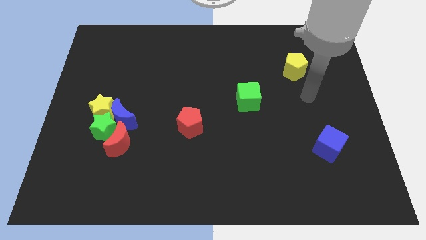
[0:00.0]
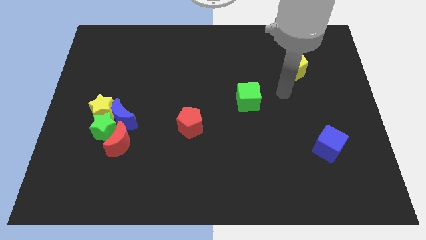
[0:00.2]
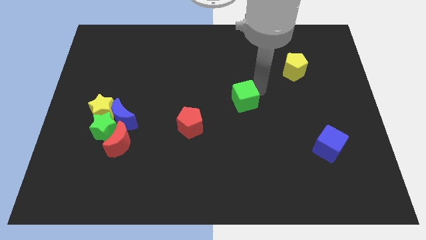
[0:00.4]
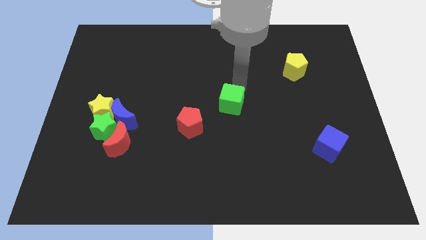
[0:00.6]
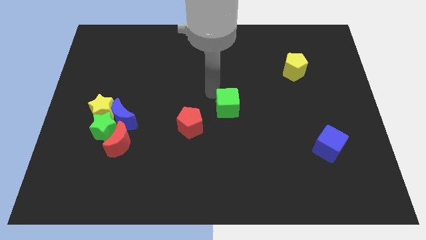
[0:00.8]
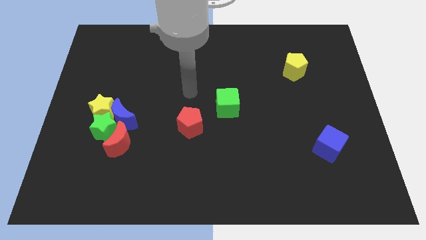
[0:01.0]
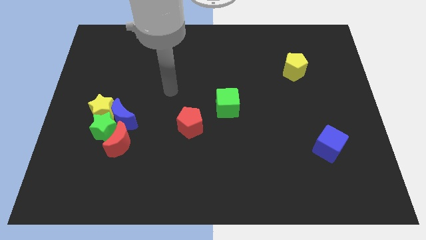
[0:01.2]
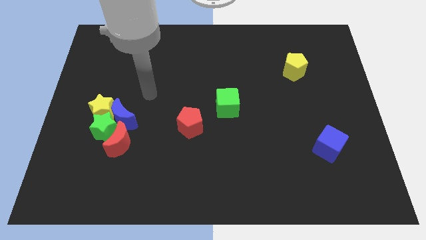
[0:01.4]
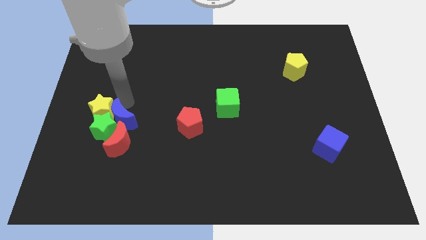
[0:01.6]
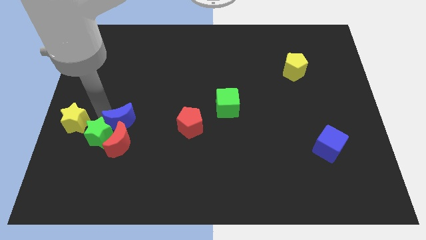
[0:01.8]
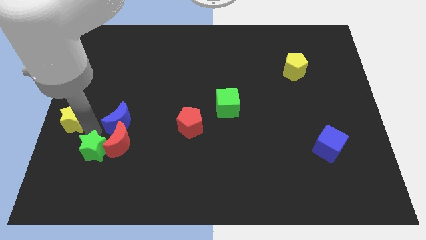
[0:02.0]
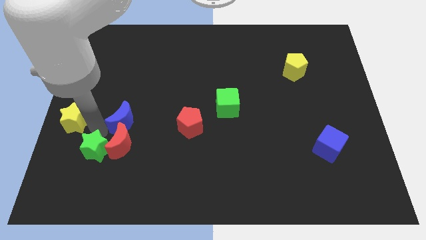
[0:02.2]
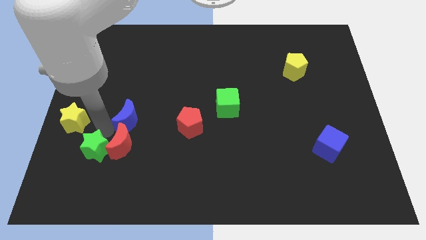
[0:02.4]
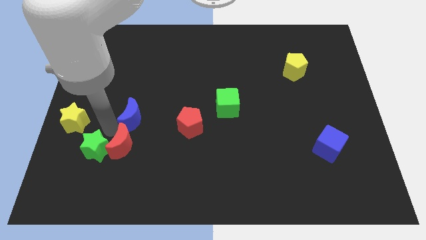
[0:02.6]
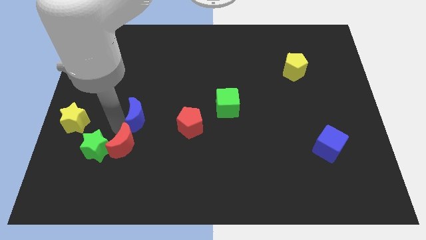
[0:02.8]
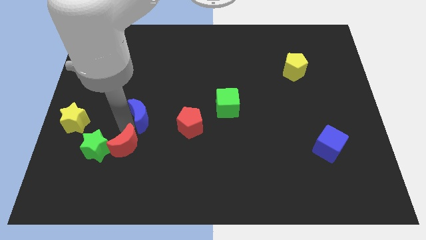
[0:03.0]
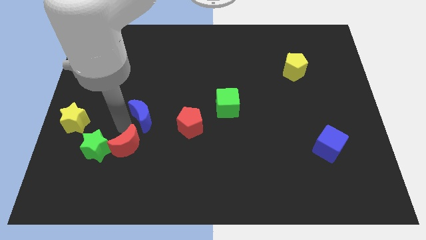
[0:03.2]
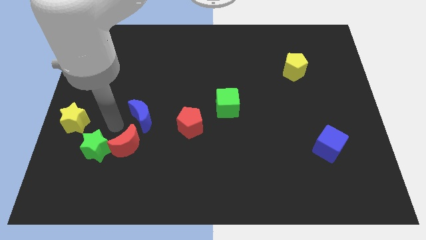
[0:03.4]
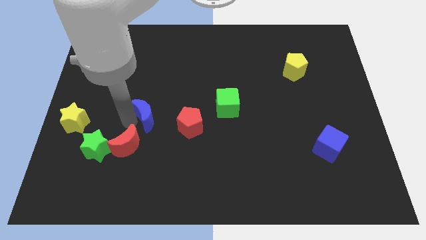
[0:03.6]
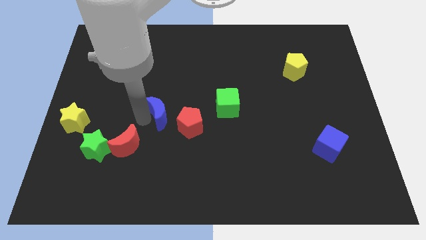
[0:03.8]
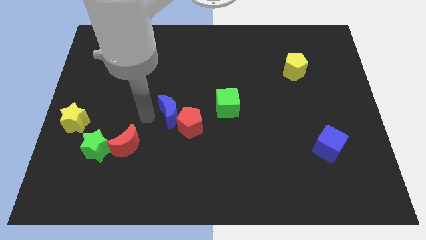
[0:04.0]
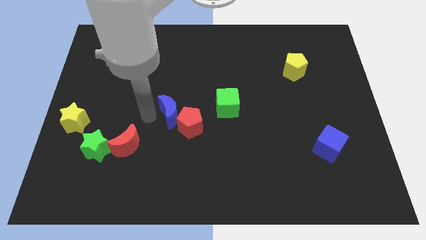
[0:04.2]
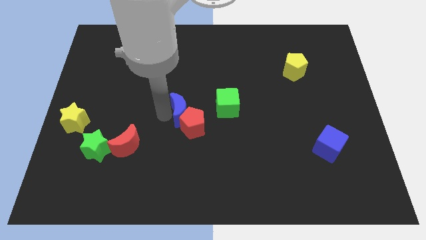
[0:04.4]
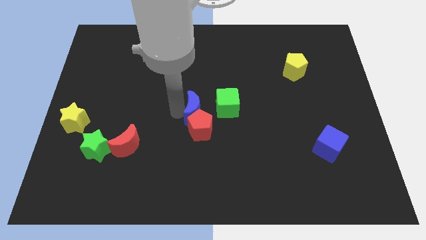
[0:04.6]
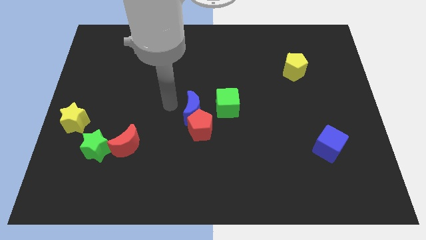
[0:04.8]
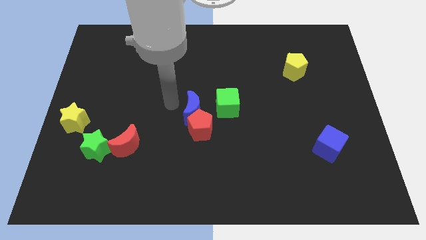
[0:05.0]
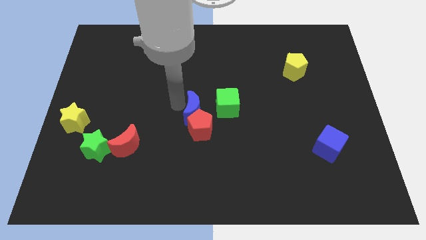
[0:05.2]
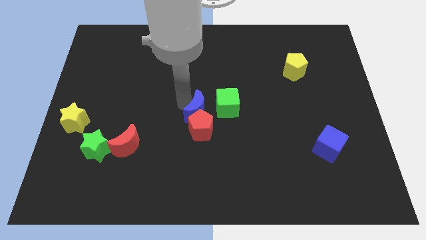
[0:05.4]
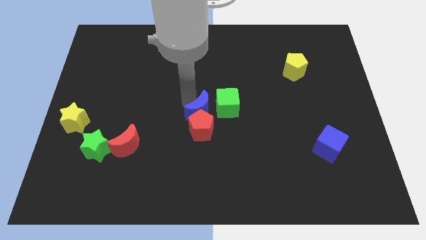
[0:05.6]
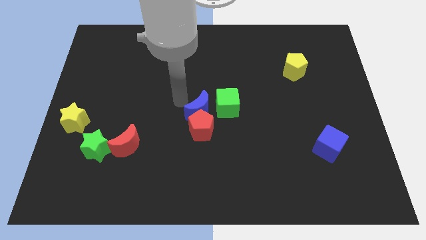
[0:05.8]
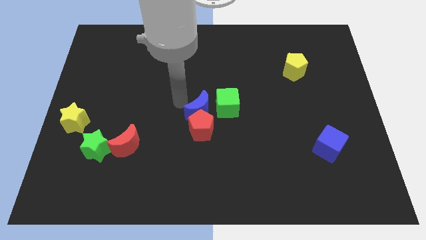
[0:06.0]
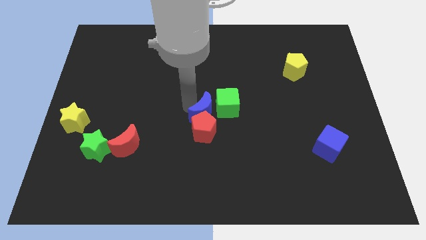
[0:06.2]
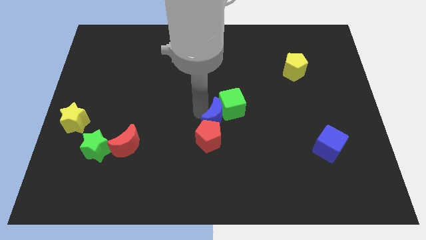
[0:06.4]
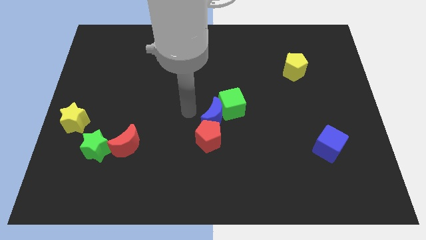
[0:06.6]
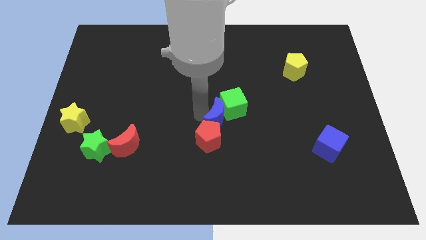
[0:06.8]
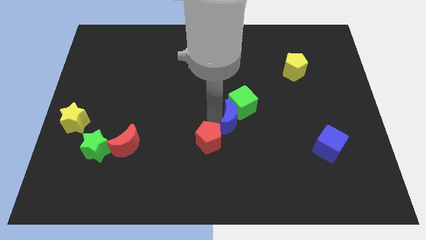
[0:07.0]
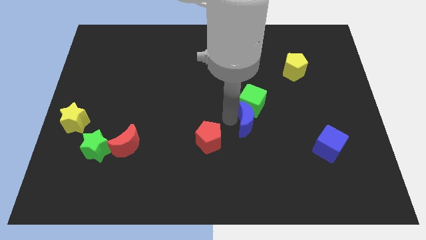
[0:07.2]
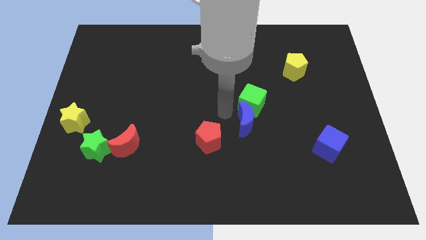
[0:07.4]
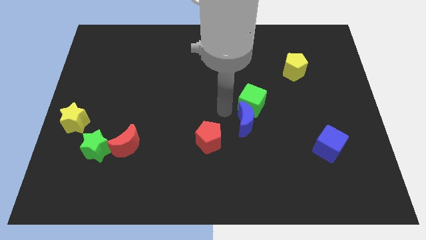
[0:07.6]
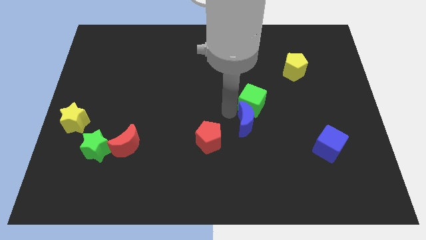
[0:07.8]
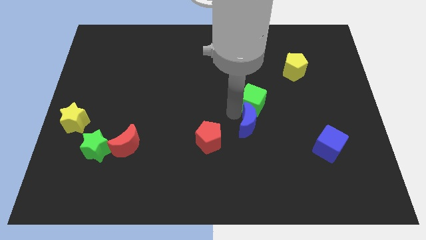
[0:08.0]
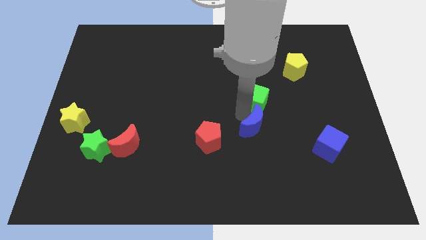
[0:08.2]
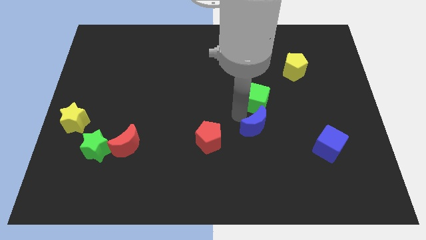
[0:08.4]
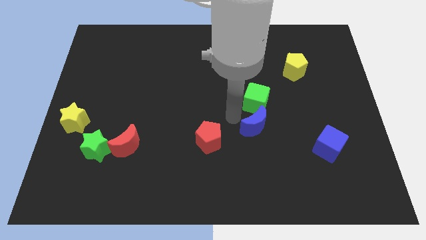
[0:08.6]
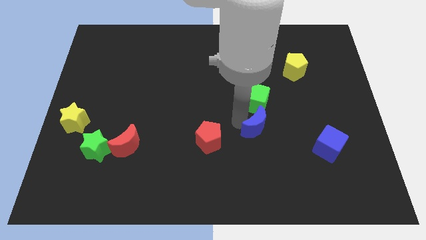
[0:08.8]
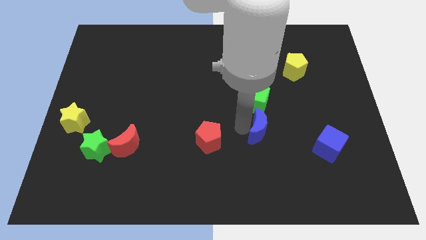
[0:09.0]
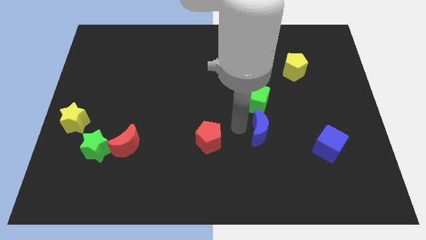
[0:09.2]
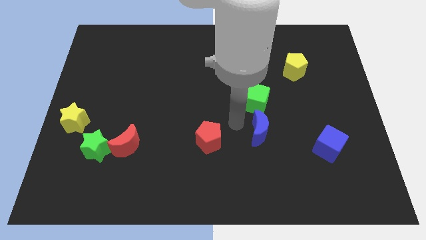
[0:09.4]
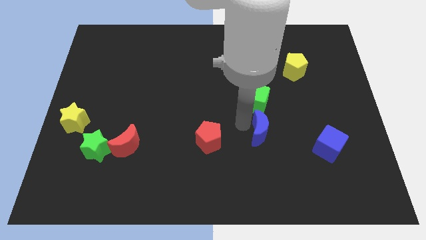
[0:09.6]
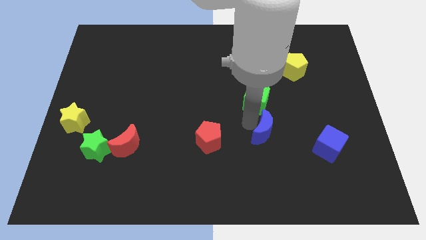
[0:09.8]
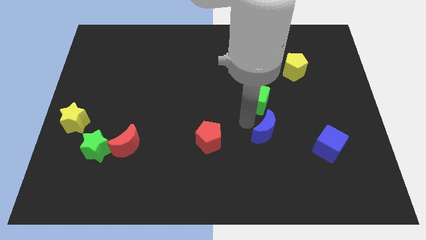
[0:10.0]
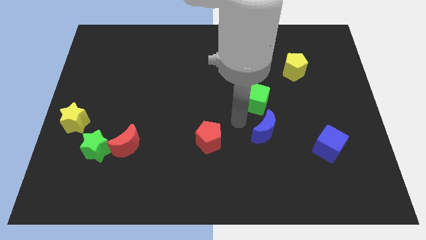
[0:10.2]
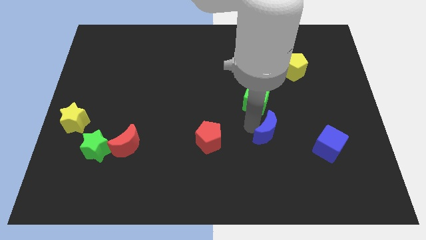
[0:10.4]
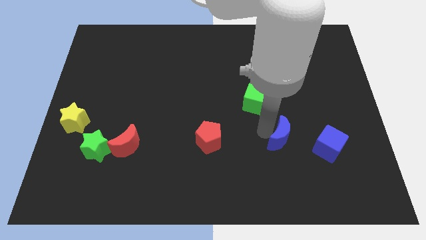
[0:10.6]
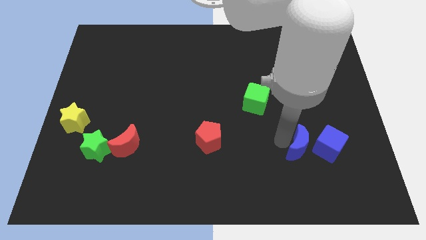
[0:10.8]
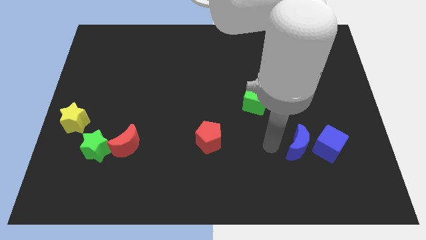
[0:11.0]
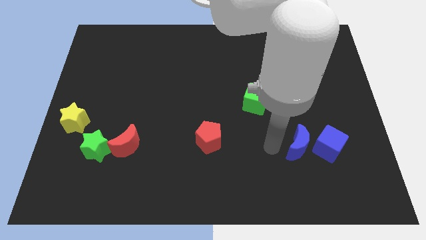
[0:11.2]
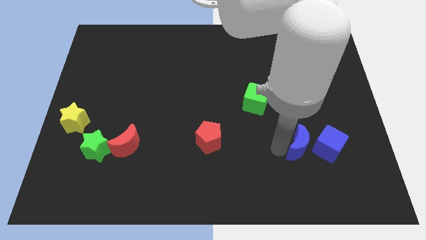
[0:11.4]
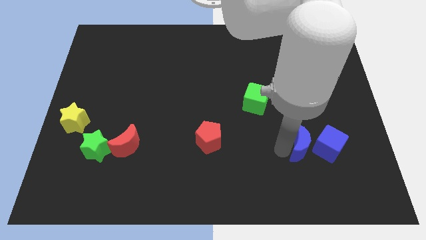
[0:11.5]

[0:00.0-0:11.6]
push the blue moon next to the blue cube

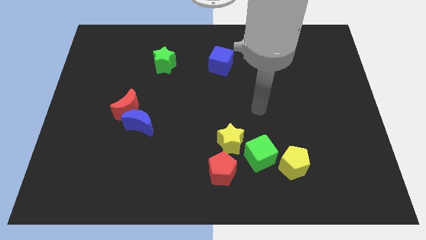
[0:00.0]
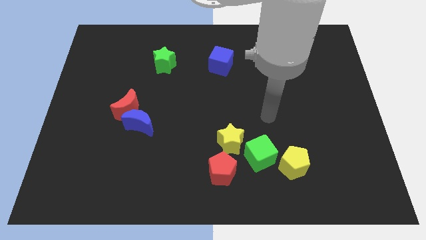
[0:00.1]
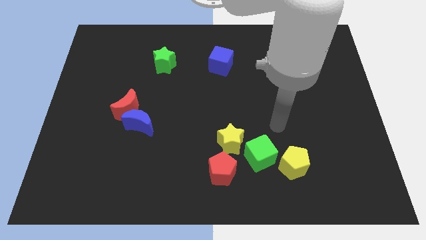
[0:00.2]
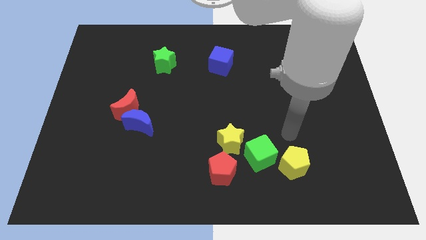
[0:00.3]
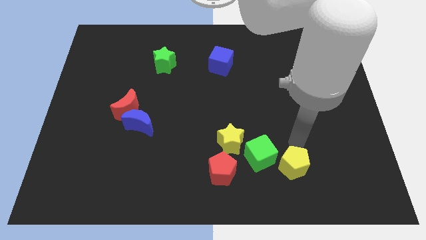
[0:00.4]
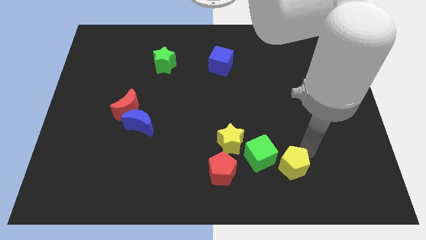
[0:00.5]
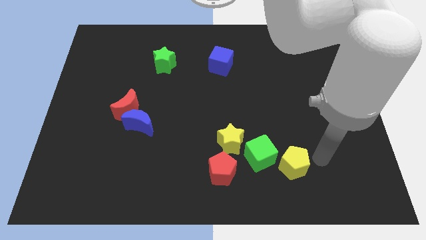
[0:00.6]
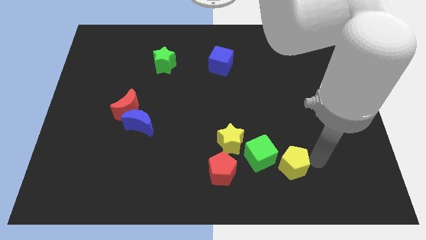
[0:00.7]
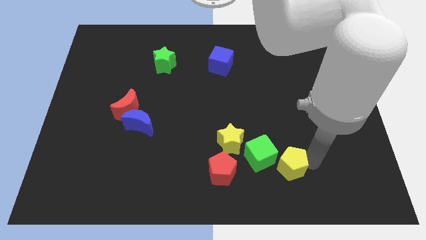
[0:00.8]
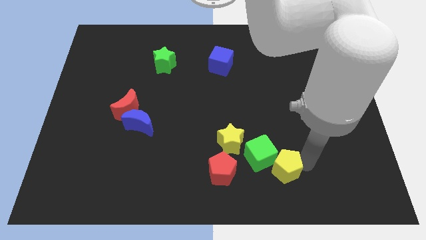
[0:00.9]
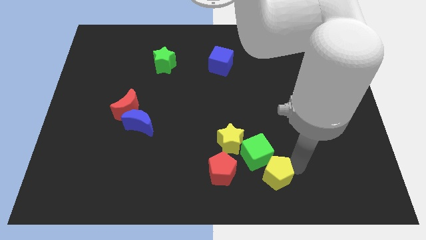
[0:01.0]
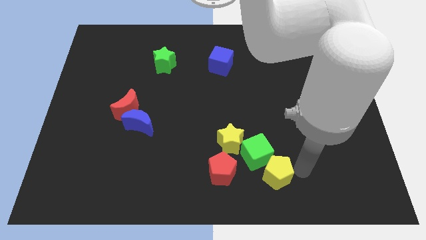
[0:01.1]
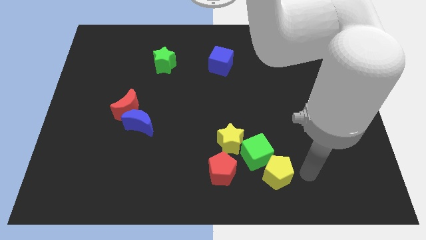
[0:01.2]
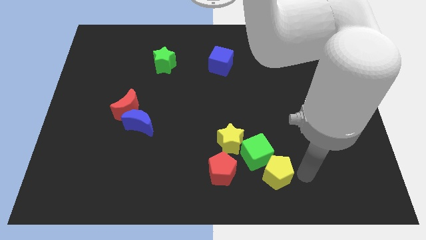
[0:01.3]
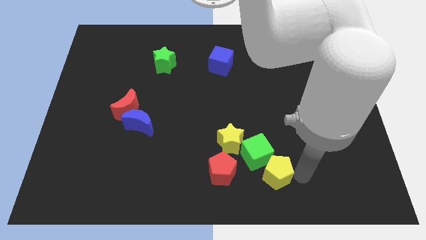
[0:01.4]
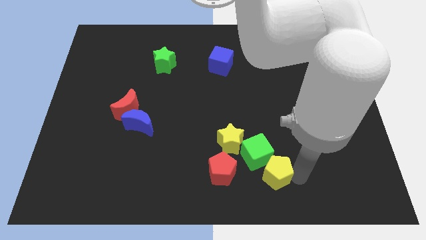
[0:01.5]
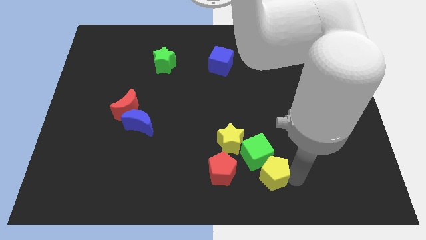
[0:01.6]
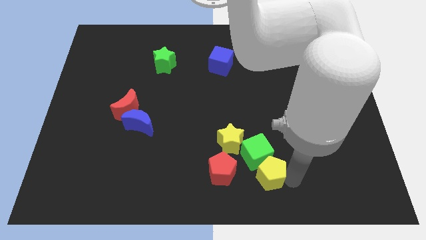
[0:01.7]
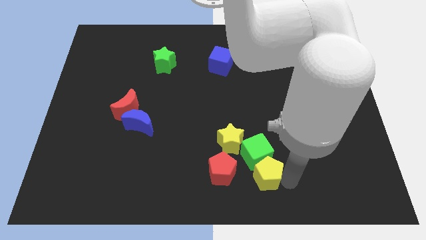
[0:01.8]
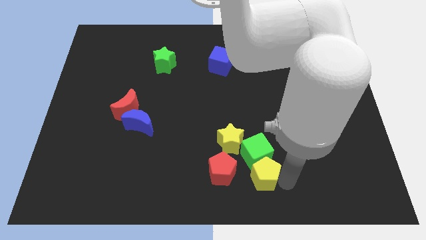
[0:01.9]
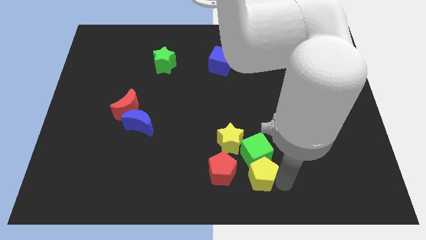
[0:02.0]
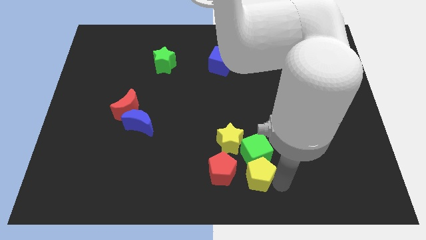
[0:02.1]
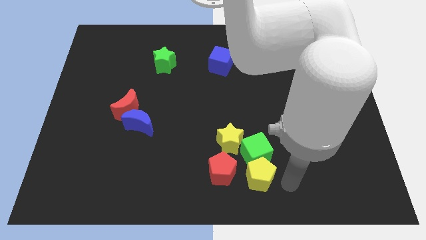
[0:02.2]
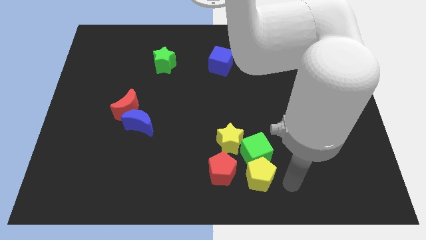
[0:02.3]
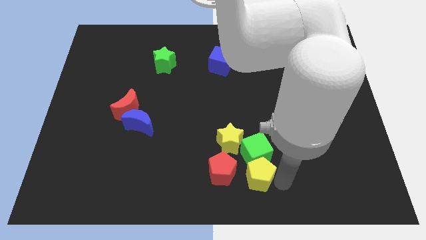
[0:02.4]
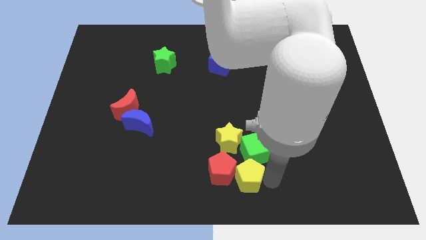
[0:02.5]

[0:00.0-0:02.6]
put the yellow pentagon towards the red pentagon
